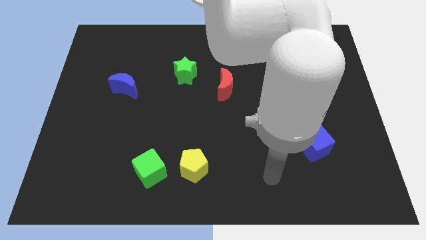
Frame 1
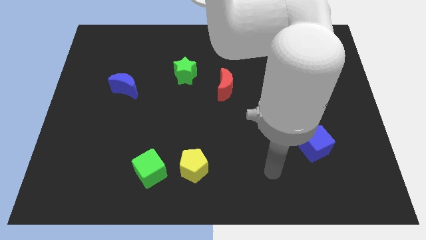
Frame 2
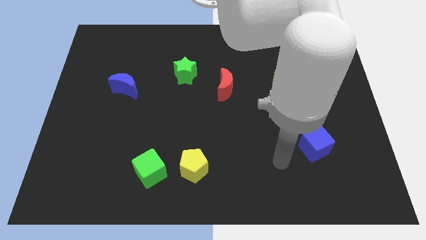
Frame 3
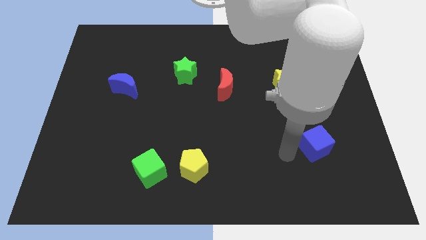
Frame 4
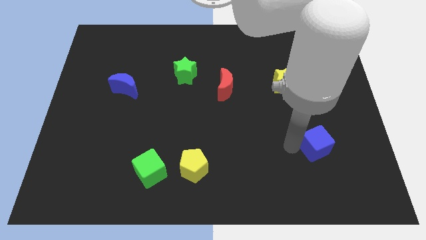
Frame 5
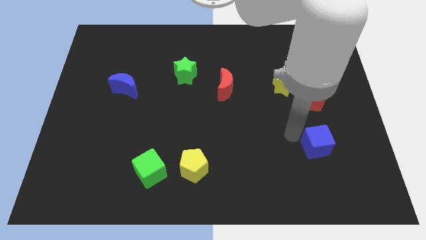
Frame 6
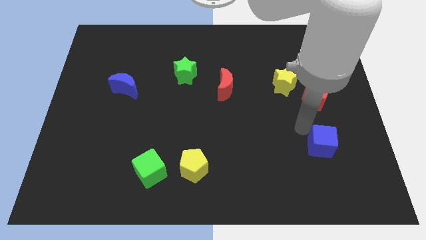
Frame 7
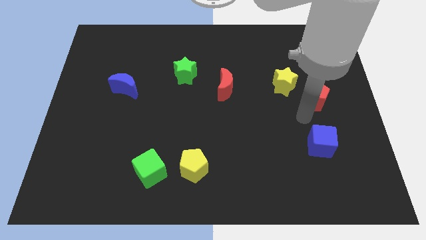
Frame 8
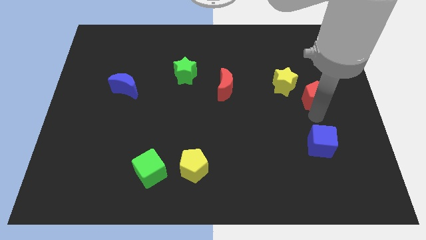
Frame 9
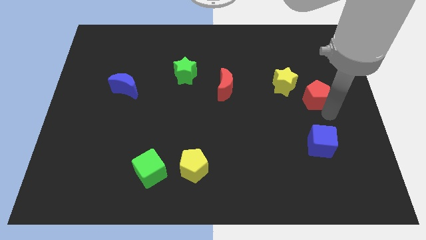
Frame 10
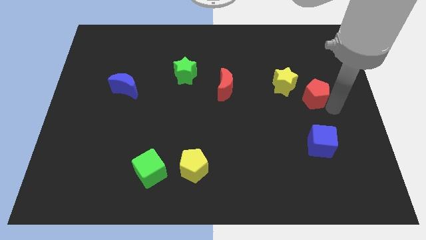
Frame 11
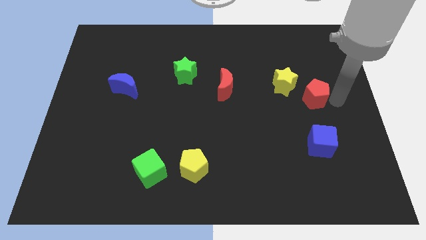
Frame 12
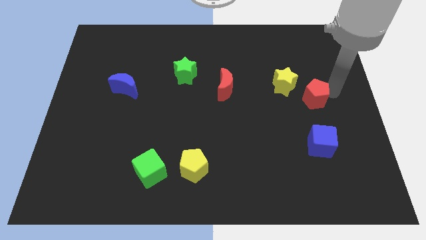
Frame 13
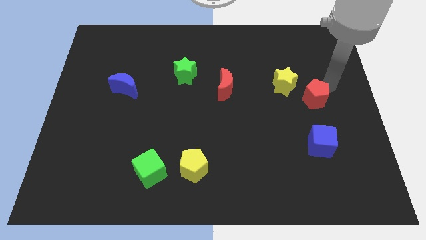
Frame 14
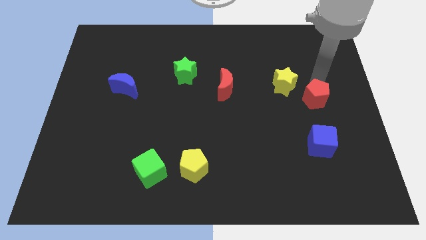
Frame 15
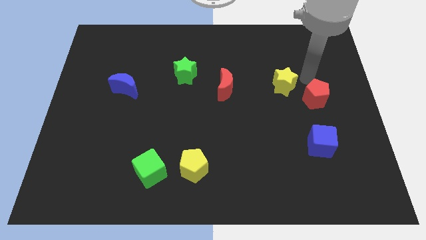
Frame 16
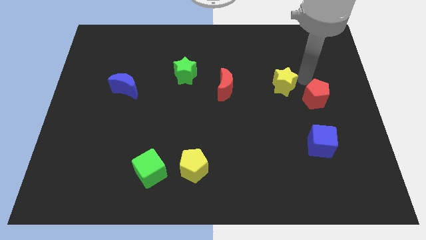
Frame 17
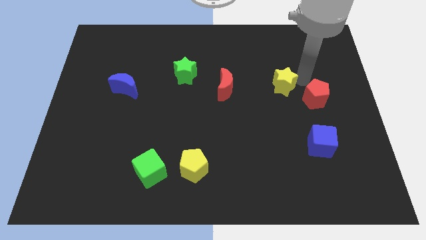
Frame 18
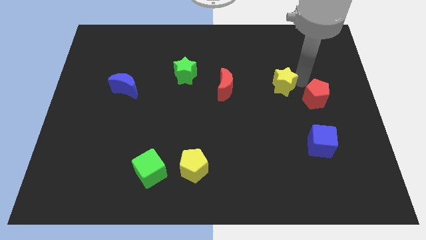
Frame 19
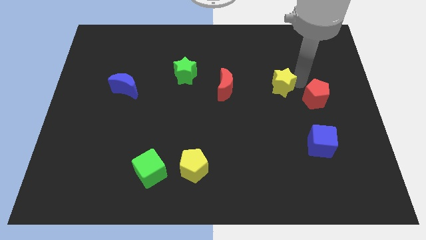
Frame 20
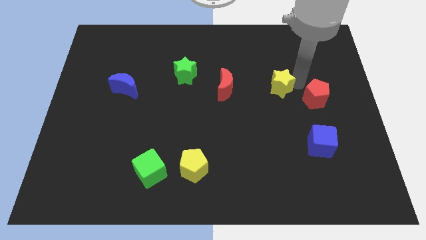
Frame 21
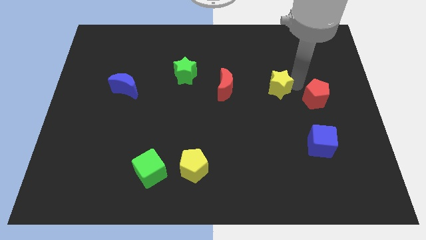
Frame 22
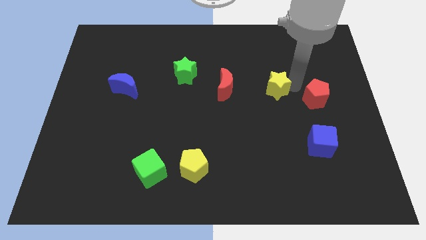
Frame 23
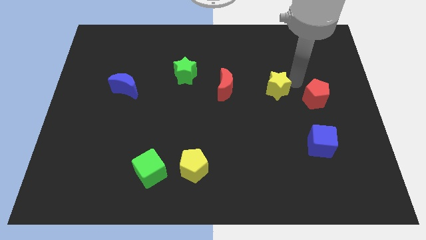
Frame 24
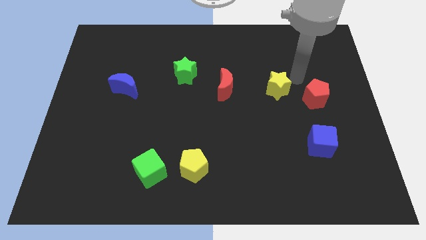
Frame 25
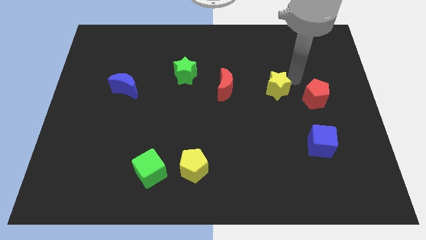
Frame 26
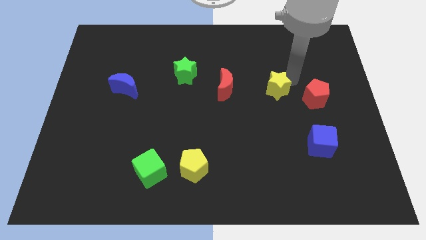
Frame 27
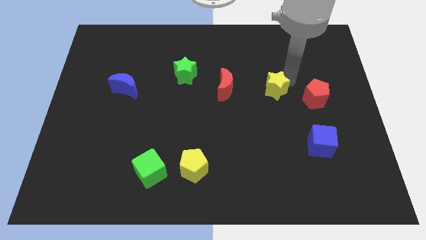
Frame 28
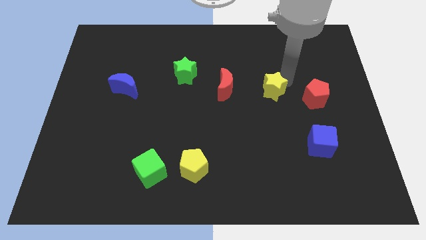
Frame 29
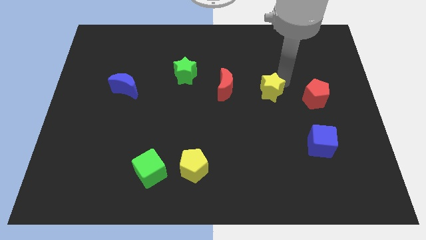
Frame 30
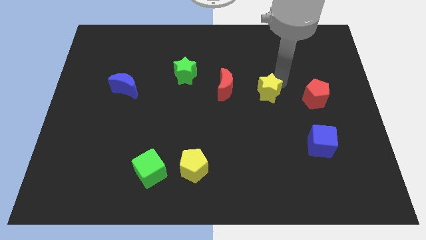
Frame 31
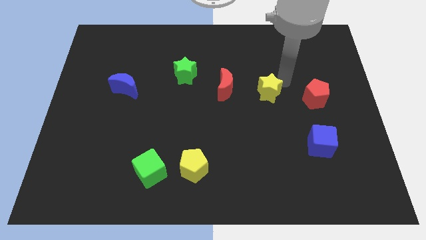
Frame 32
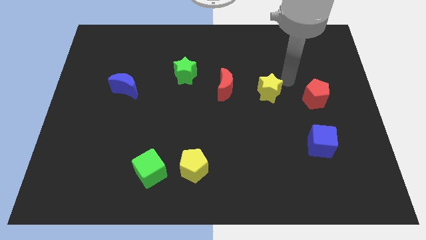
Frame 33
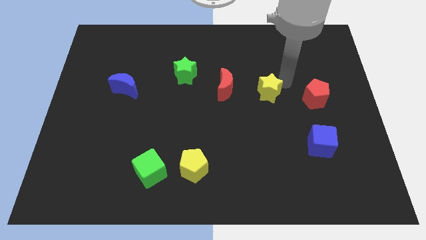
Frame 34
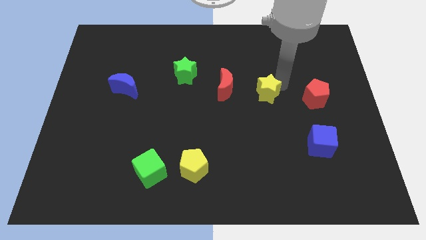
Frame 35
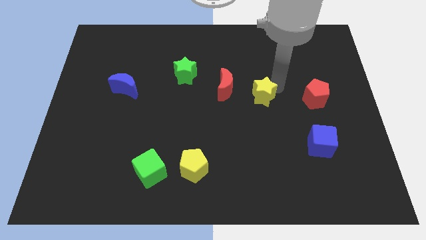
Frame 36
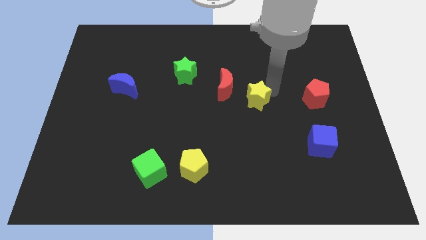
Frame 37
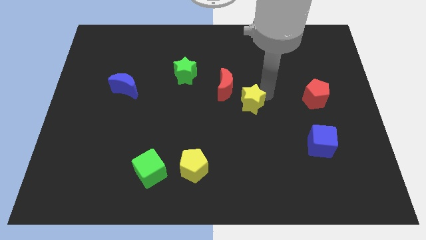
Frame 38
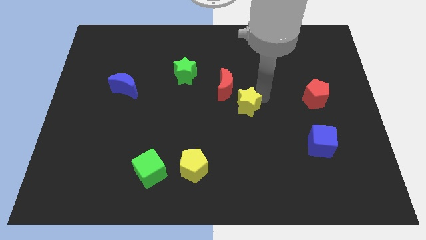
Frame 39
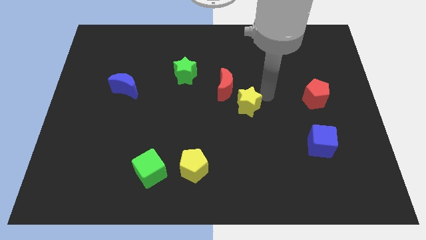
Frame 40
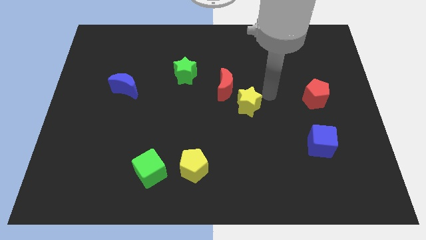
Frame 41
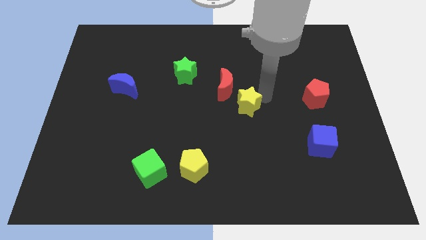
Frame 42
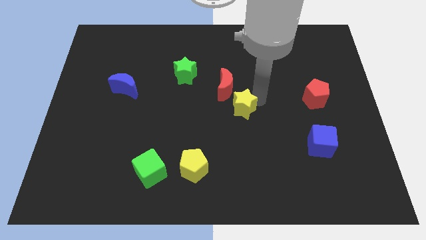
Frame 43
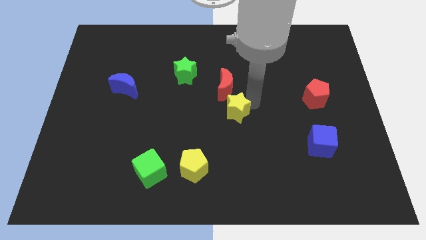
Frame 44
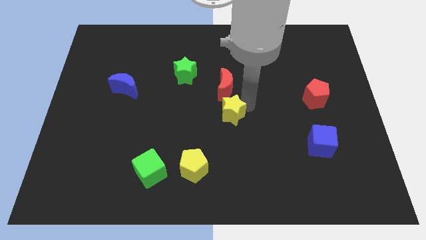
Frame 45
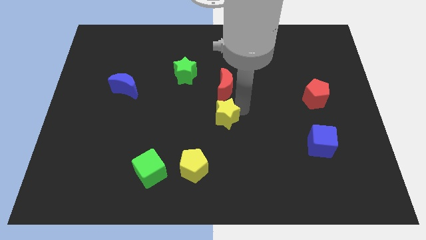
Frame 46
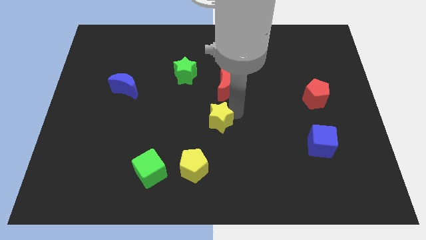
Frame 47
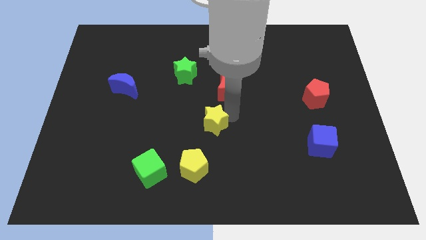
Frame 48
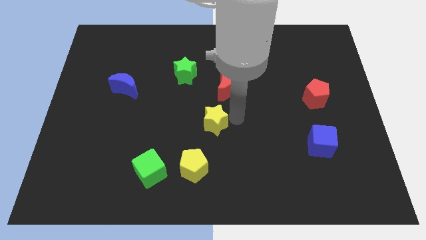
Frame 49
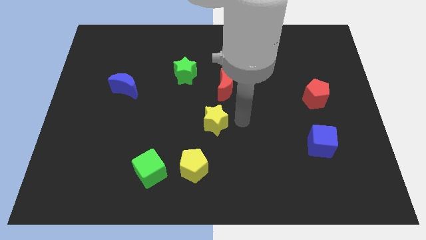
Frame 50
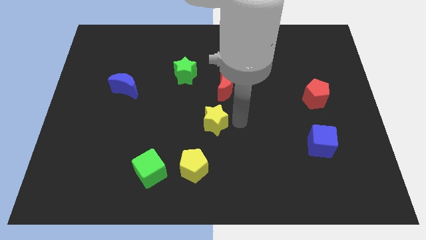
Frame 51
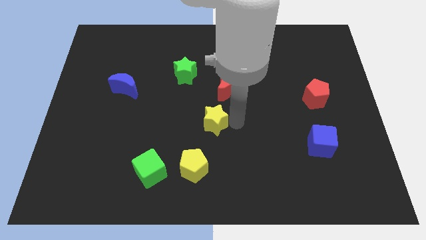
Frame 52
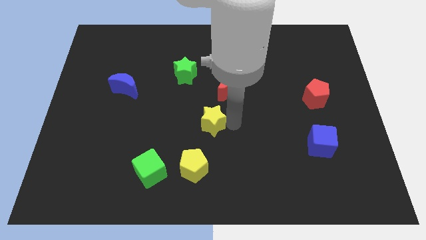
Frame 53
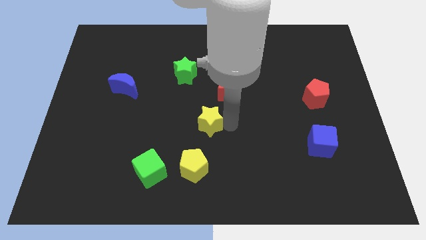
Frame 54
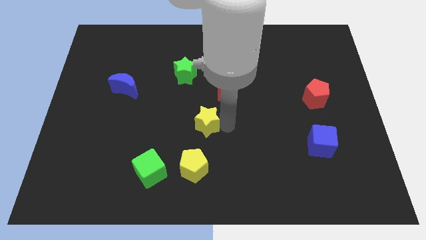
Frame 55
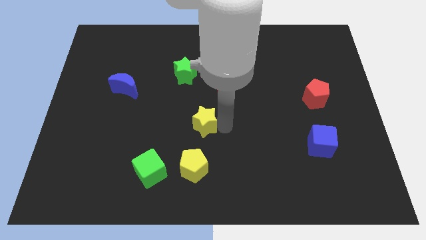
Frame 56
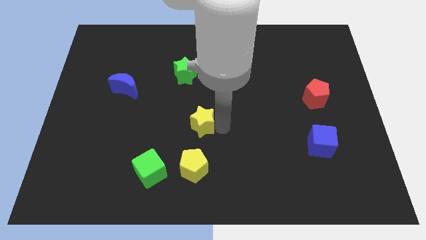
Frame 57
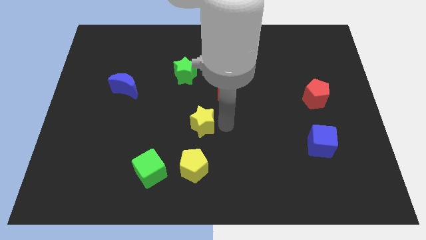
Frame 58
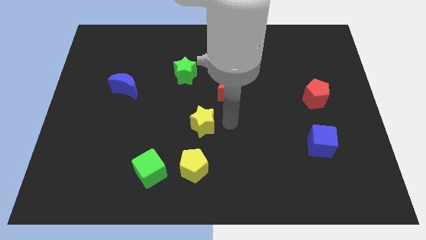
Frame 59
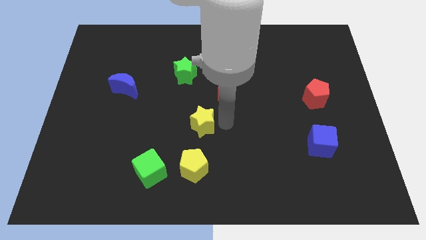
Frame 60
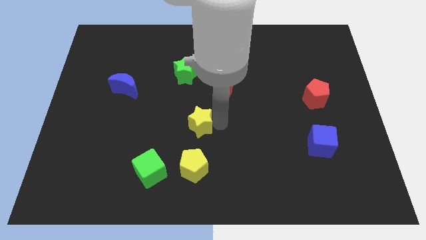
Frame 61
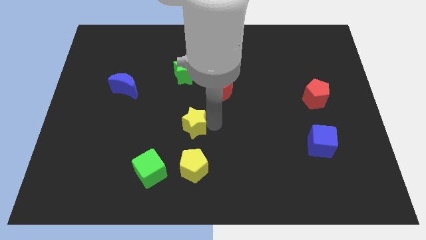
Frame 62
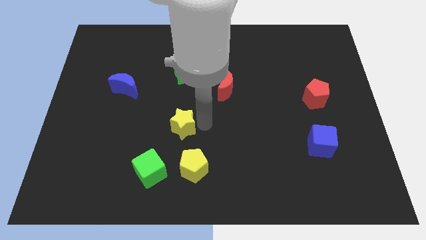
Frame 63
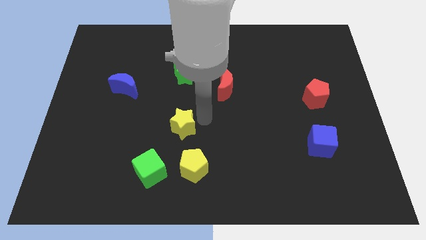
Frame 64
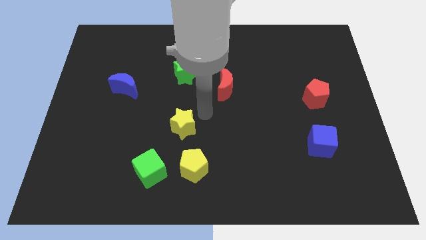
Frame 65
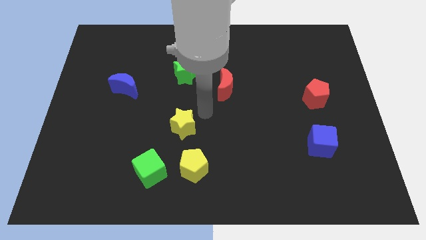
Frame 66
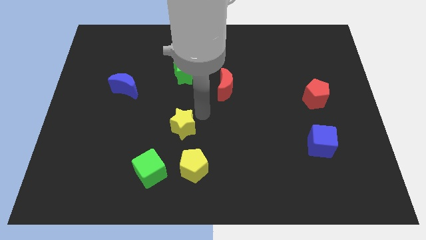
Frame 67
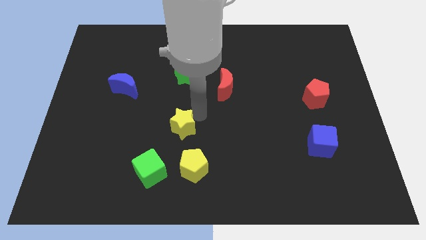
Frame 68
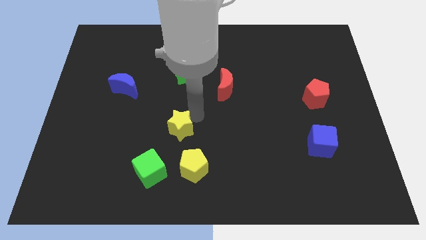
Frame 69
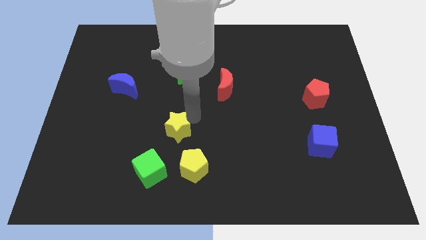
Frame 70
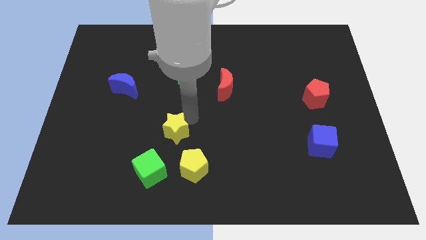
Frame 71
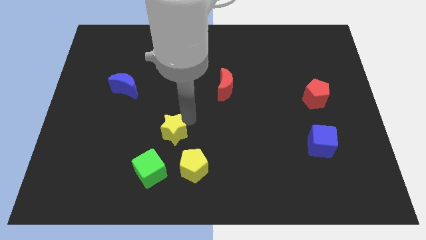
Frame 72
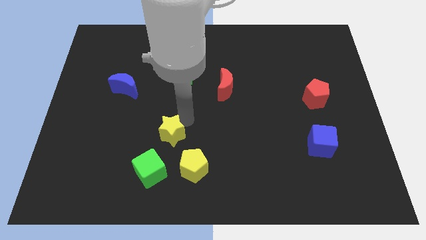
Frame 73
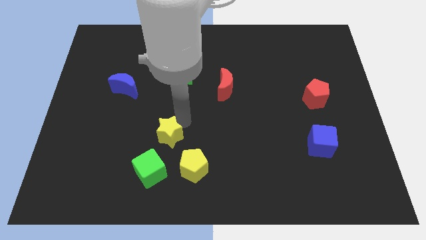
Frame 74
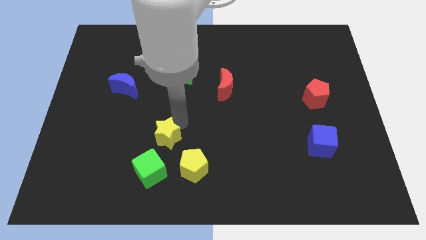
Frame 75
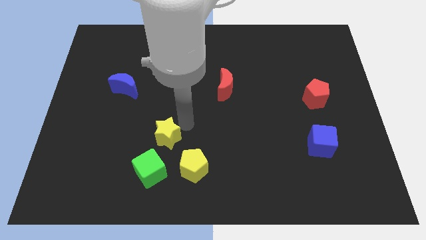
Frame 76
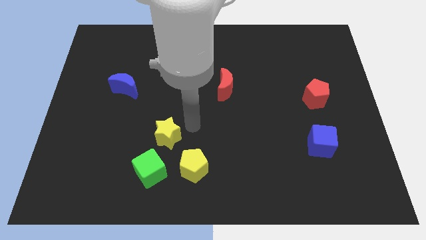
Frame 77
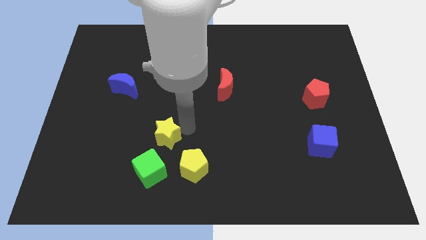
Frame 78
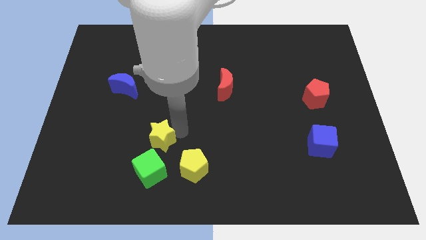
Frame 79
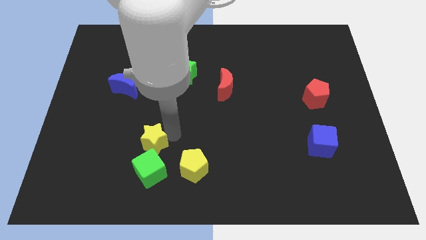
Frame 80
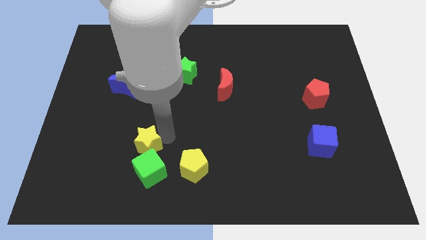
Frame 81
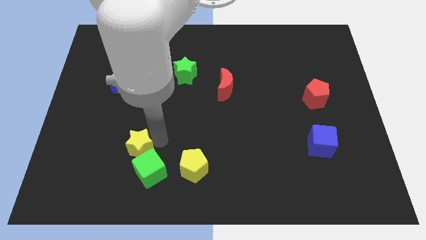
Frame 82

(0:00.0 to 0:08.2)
move the yellow star to the left of the yellow pentagon
